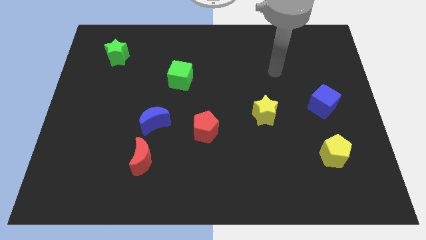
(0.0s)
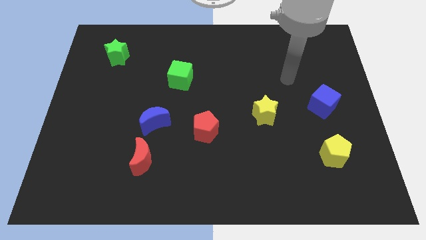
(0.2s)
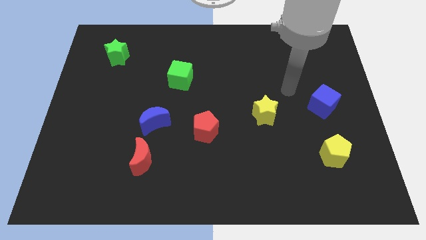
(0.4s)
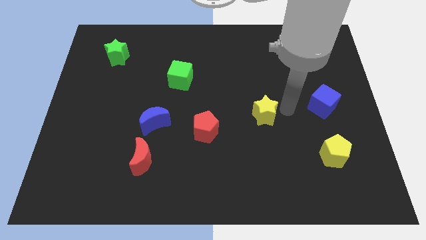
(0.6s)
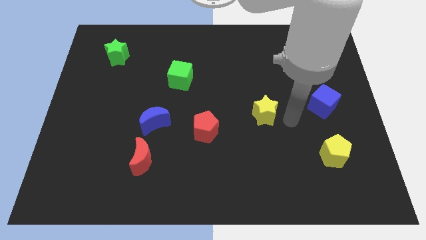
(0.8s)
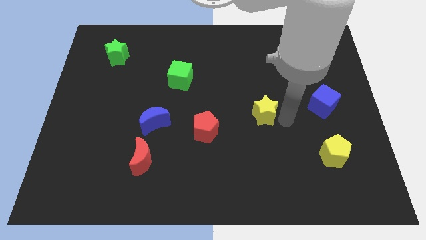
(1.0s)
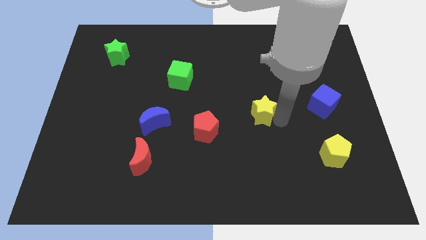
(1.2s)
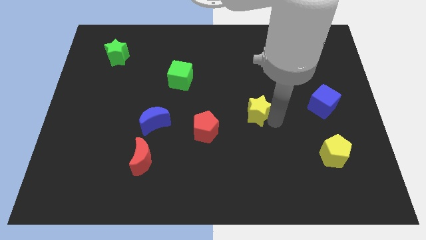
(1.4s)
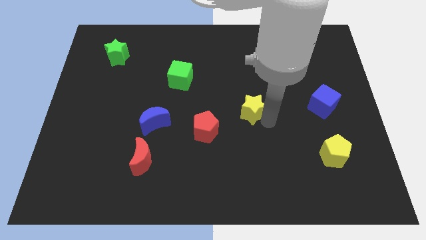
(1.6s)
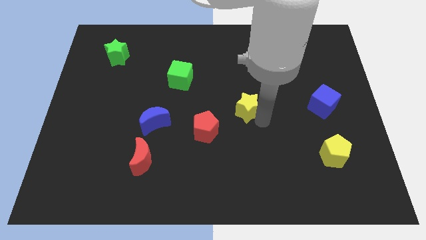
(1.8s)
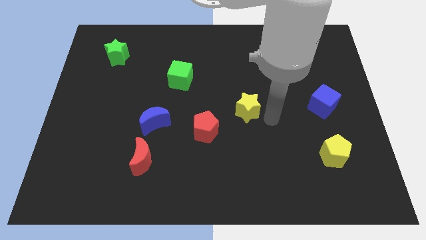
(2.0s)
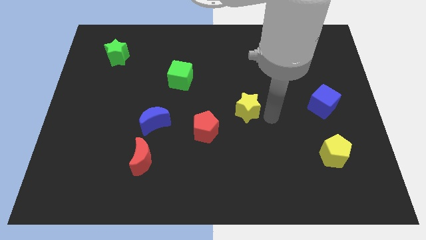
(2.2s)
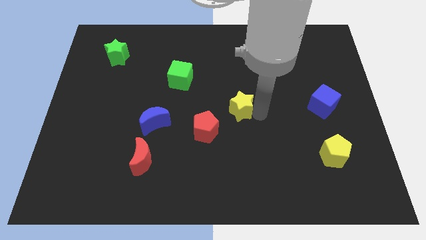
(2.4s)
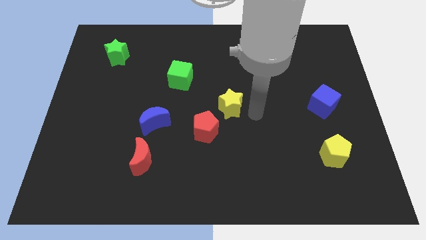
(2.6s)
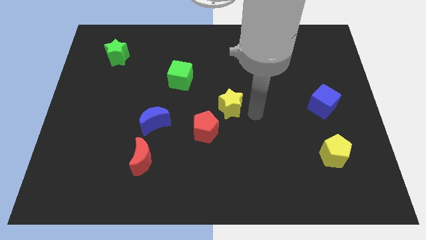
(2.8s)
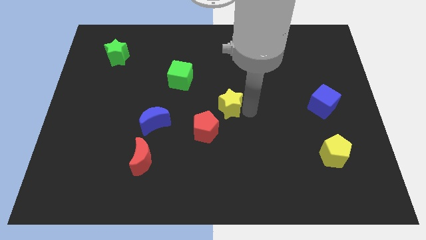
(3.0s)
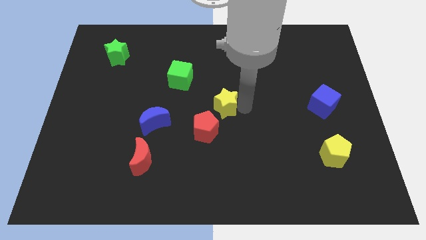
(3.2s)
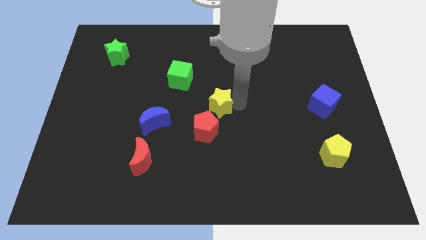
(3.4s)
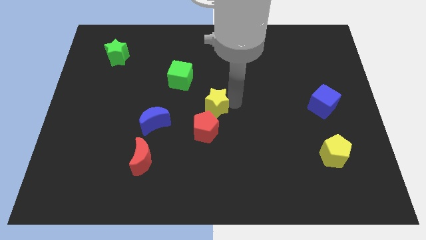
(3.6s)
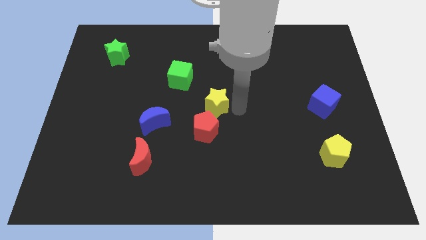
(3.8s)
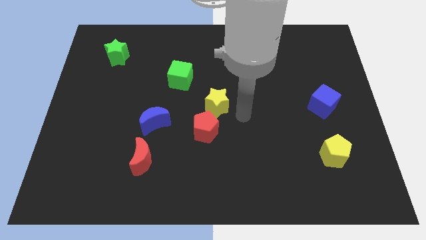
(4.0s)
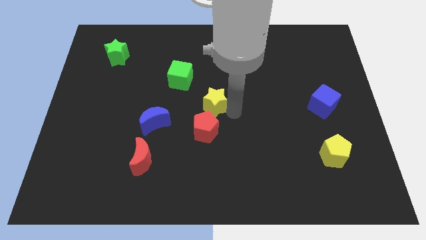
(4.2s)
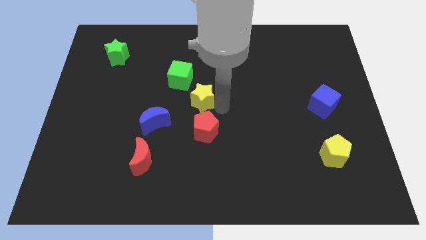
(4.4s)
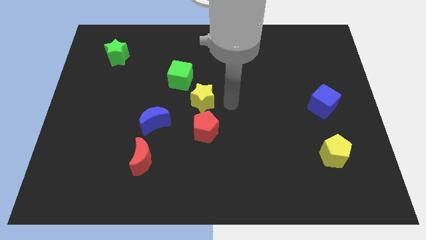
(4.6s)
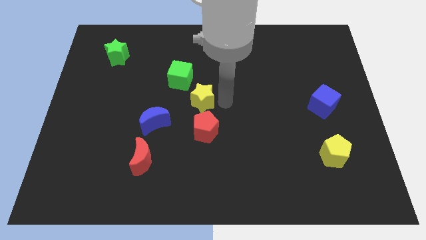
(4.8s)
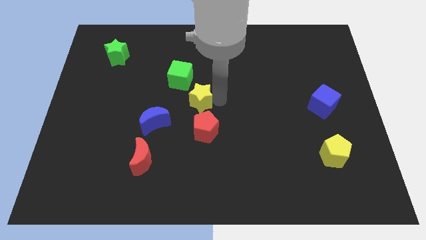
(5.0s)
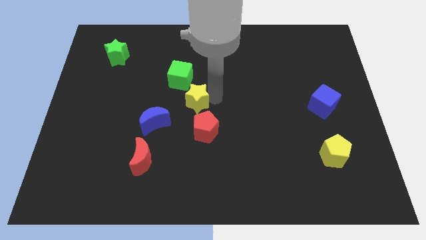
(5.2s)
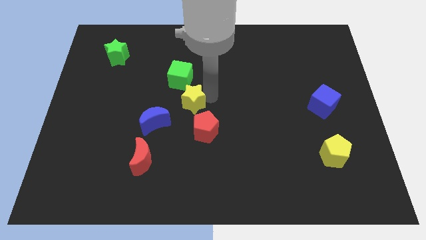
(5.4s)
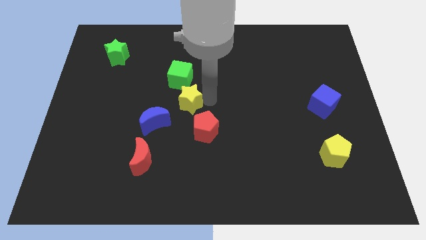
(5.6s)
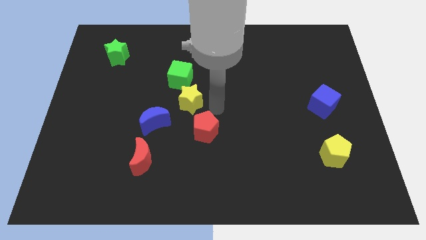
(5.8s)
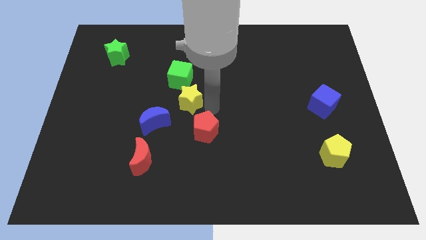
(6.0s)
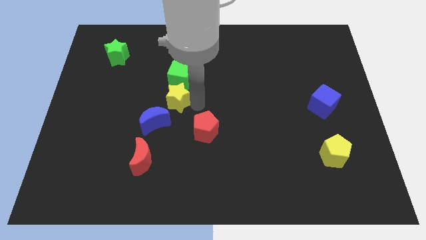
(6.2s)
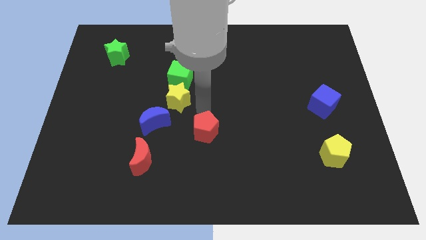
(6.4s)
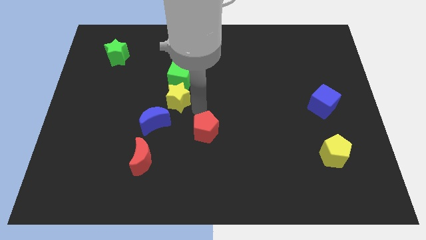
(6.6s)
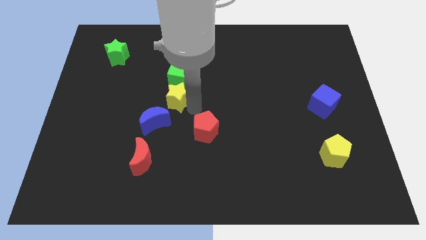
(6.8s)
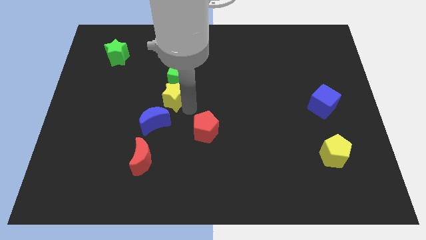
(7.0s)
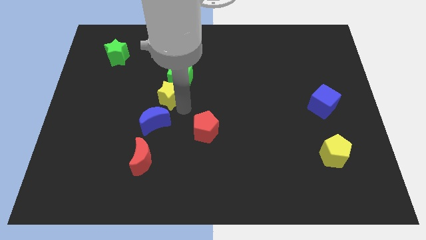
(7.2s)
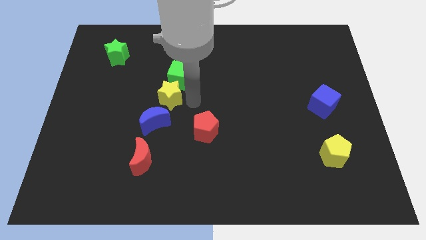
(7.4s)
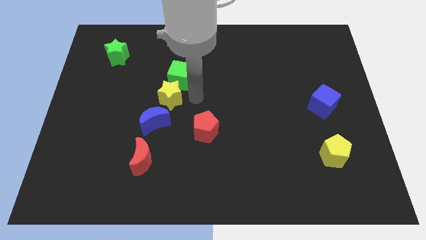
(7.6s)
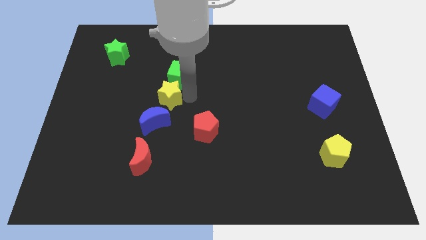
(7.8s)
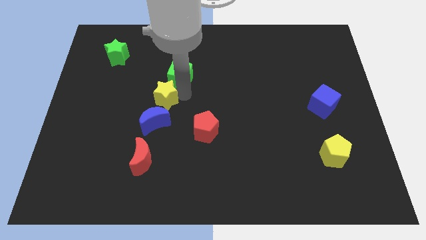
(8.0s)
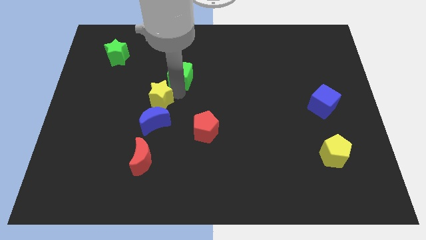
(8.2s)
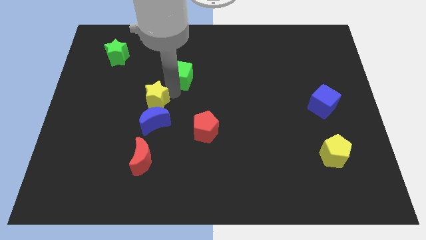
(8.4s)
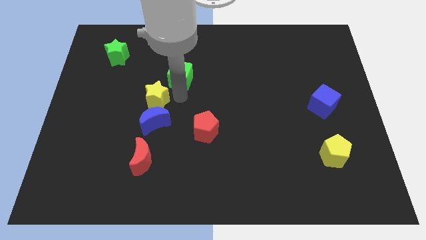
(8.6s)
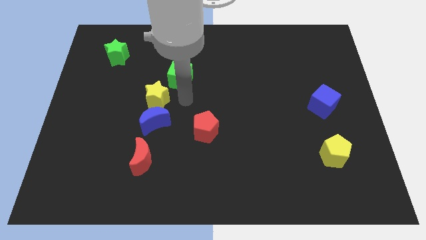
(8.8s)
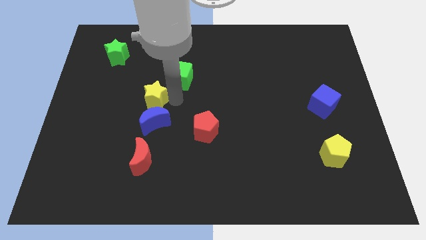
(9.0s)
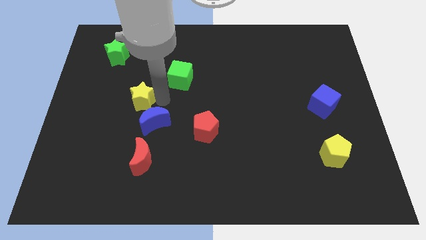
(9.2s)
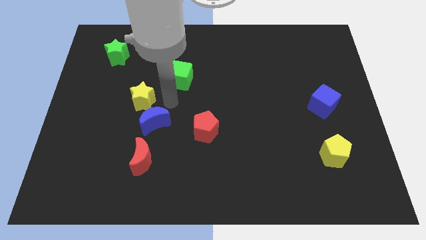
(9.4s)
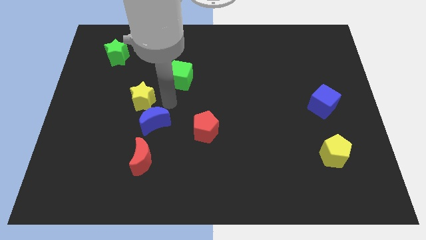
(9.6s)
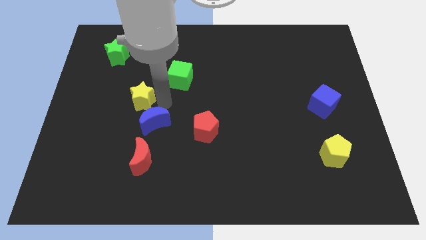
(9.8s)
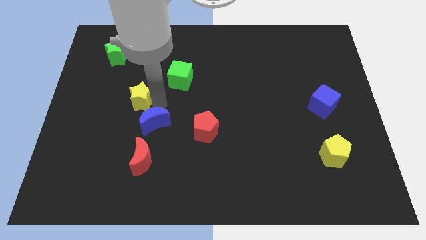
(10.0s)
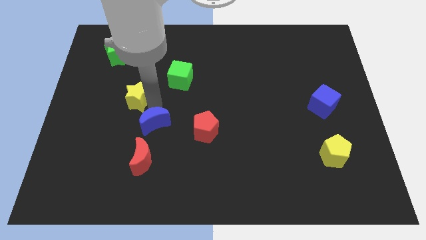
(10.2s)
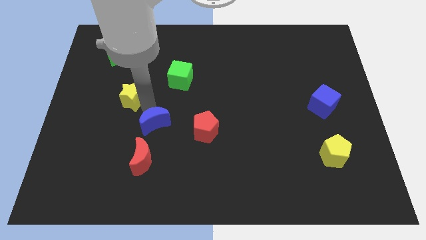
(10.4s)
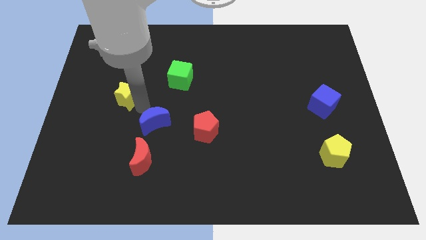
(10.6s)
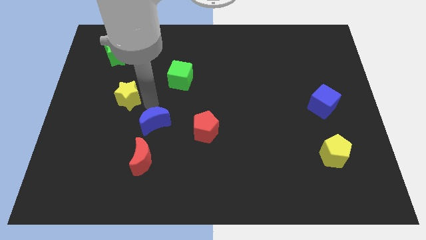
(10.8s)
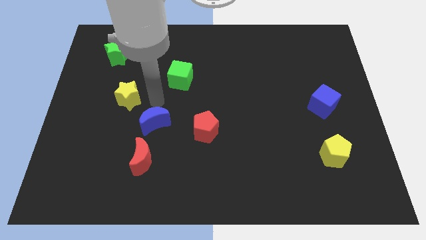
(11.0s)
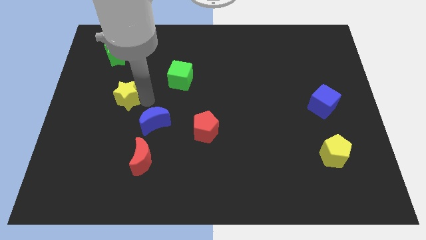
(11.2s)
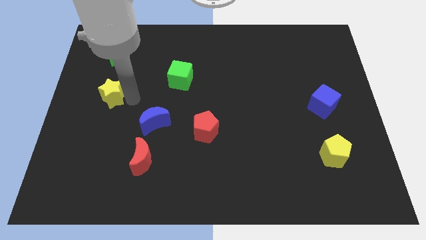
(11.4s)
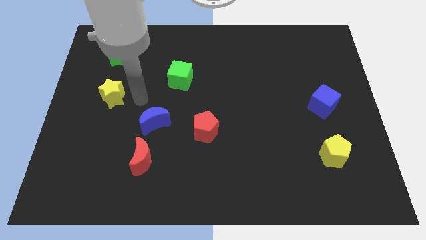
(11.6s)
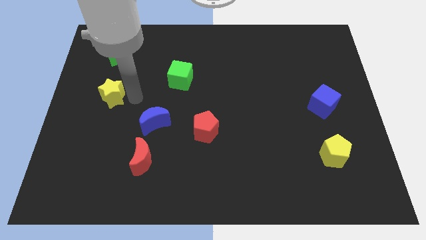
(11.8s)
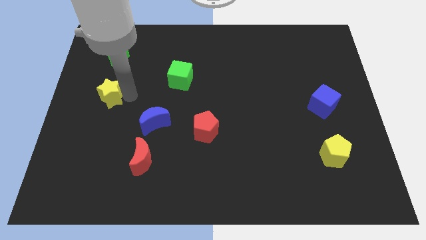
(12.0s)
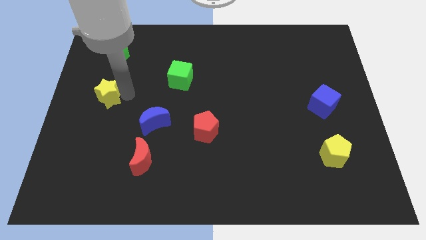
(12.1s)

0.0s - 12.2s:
move the yellow star to the center left
